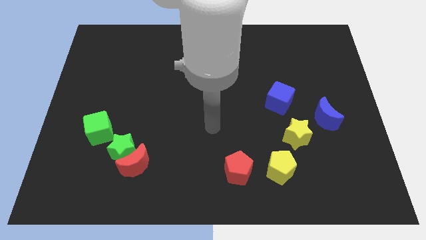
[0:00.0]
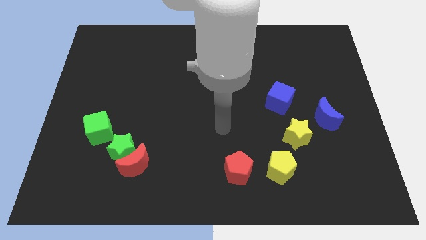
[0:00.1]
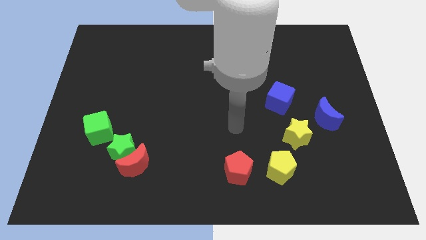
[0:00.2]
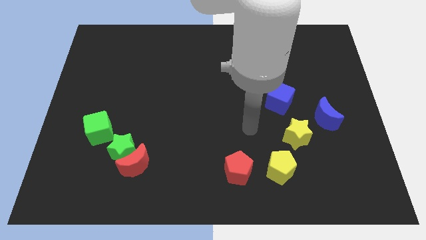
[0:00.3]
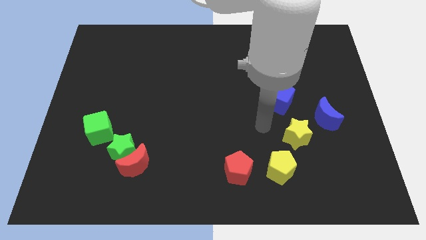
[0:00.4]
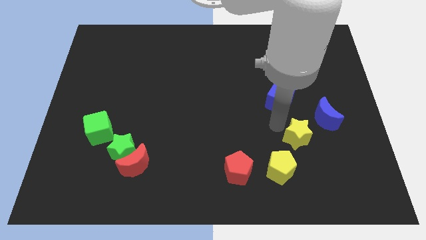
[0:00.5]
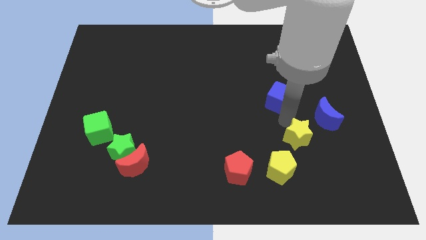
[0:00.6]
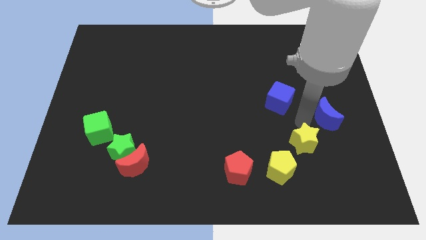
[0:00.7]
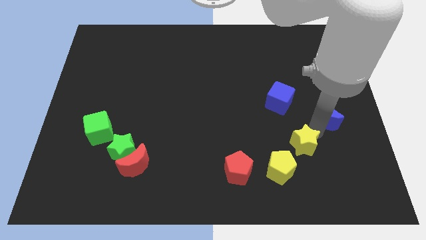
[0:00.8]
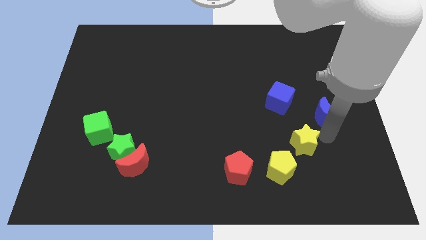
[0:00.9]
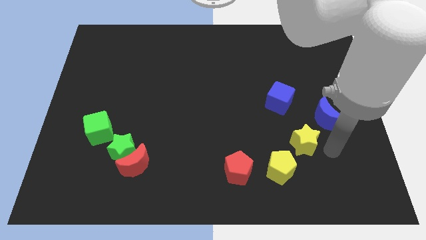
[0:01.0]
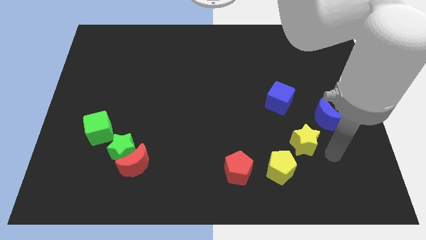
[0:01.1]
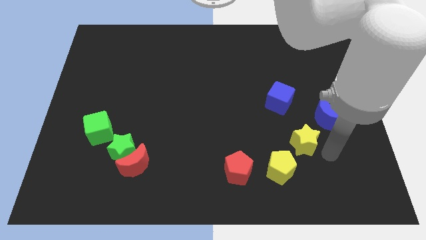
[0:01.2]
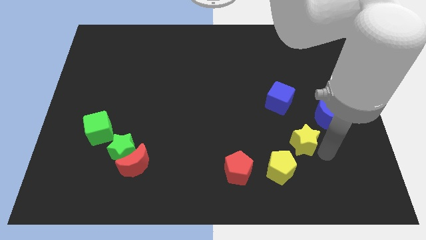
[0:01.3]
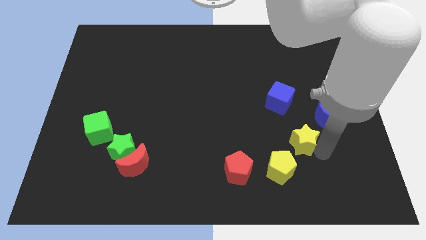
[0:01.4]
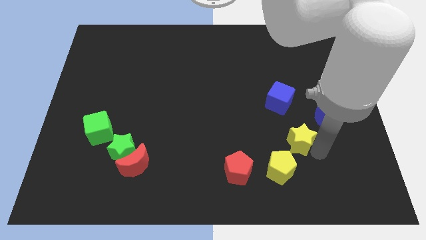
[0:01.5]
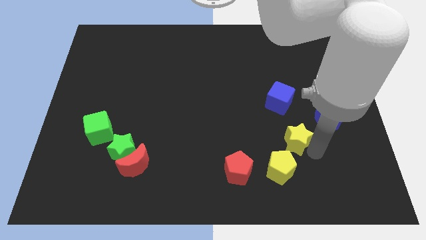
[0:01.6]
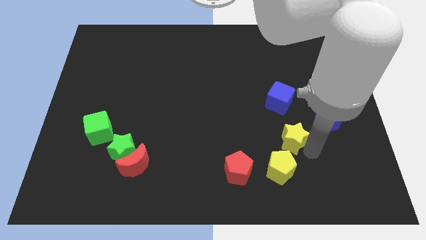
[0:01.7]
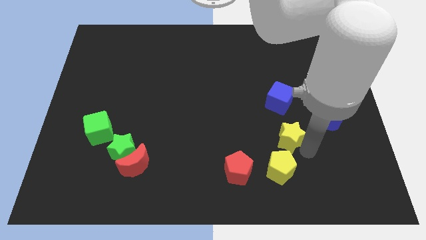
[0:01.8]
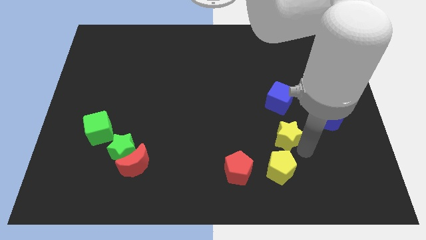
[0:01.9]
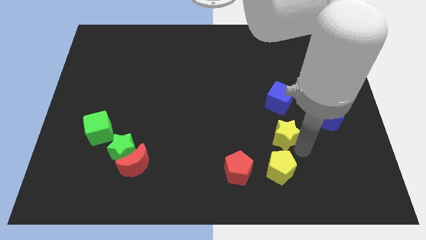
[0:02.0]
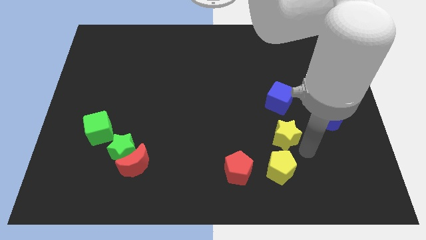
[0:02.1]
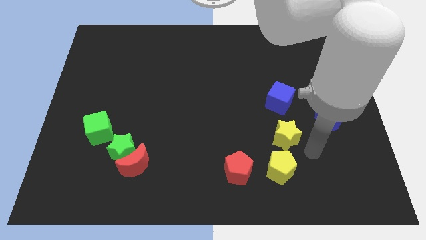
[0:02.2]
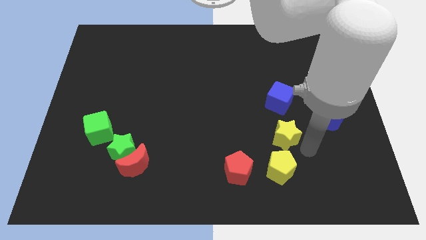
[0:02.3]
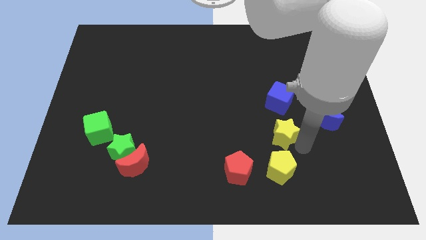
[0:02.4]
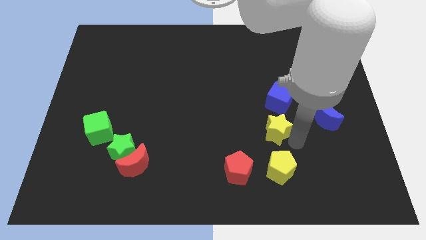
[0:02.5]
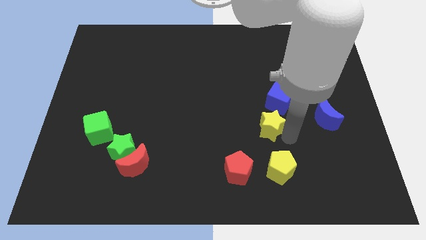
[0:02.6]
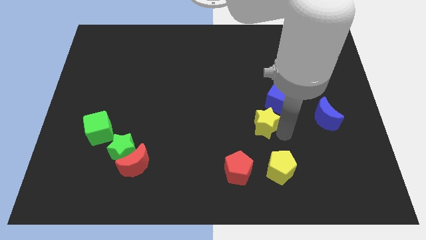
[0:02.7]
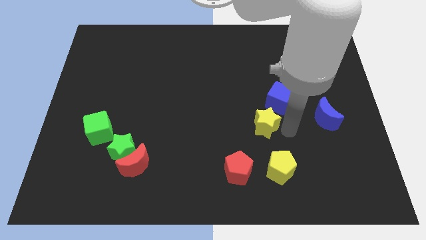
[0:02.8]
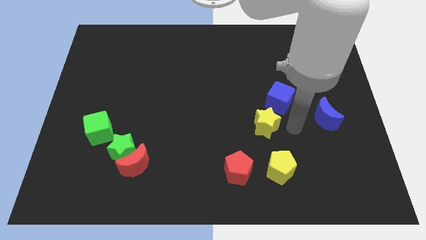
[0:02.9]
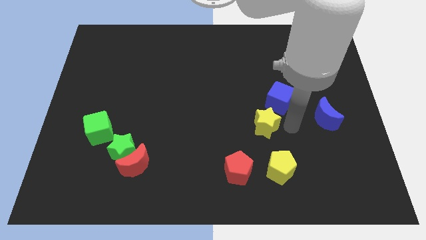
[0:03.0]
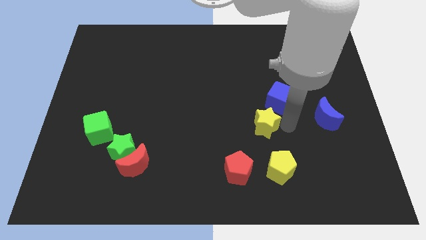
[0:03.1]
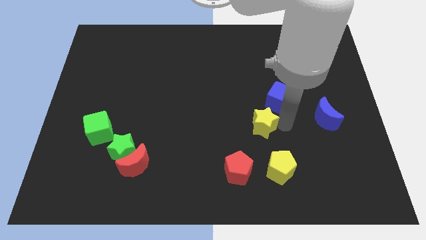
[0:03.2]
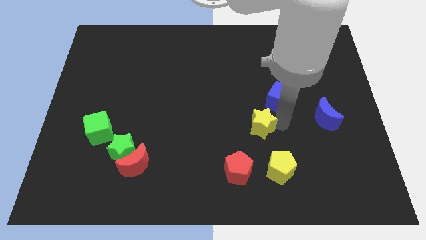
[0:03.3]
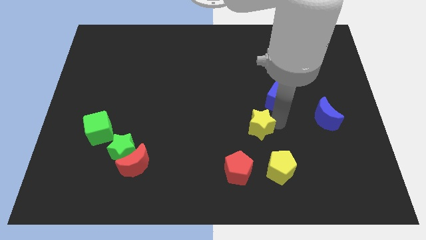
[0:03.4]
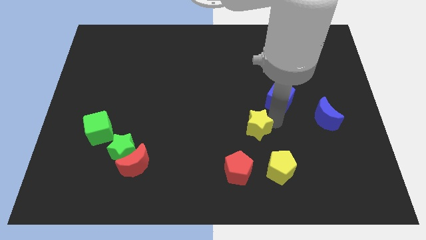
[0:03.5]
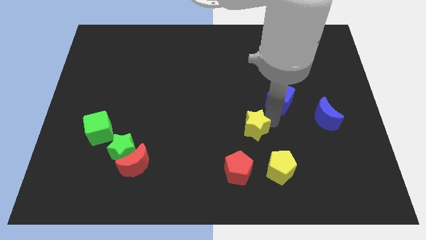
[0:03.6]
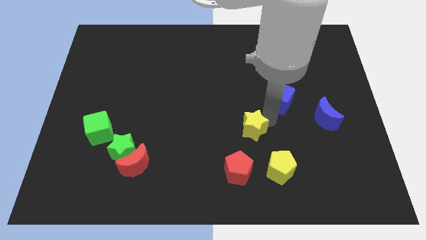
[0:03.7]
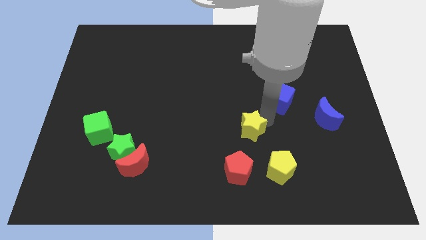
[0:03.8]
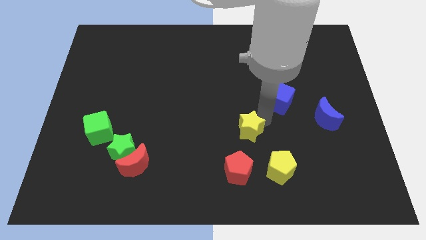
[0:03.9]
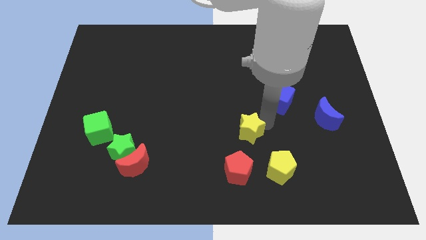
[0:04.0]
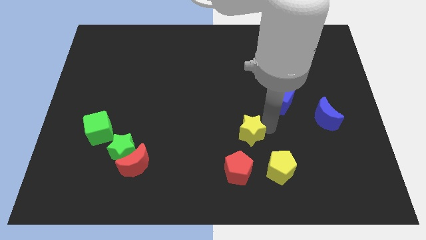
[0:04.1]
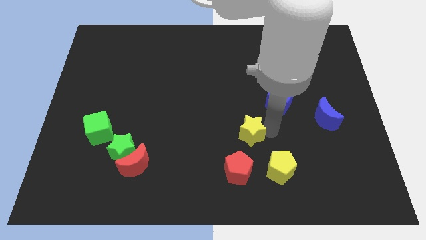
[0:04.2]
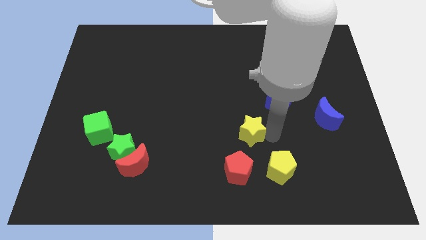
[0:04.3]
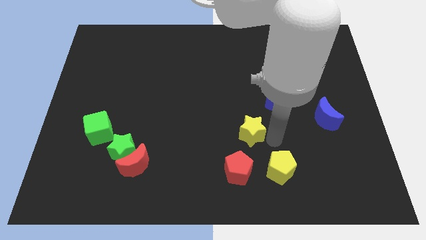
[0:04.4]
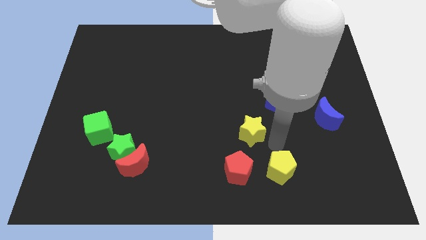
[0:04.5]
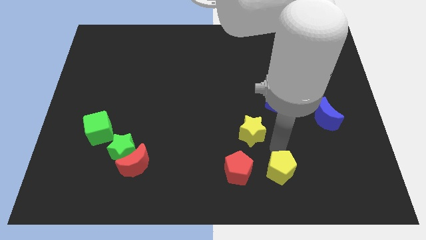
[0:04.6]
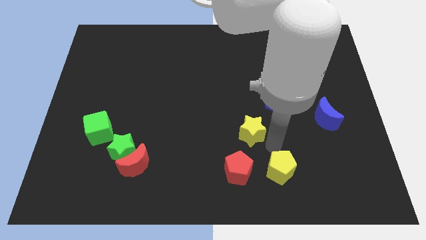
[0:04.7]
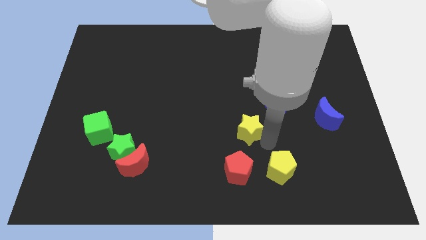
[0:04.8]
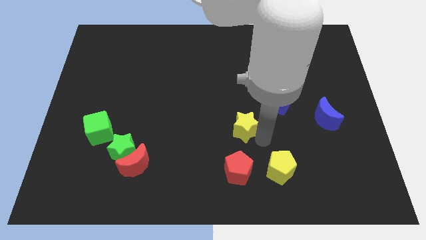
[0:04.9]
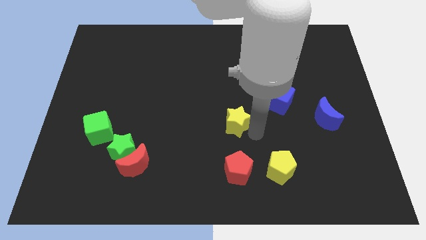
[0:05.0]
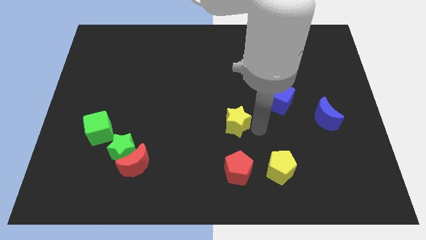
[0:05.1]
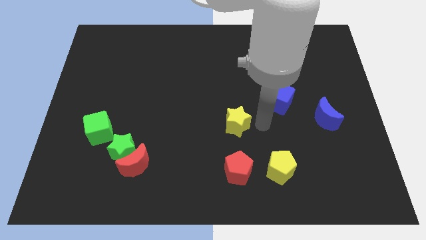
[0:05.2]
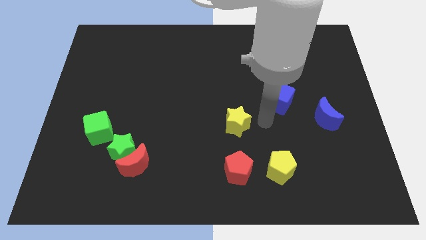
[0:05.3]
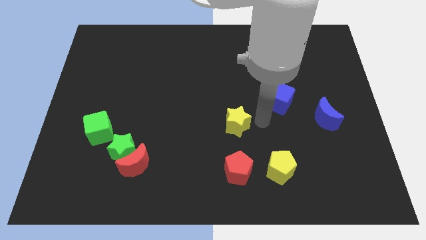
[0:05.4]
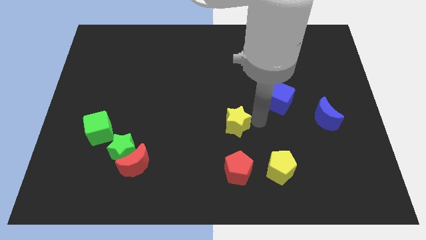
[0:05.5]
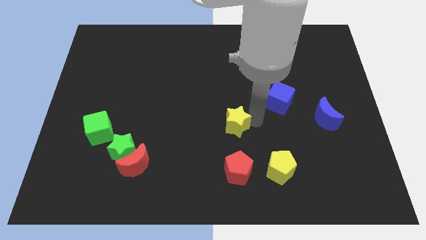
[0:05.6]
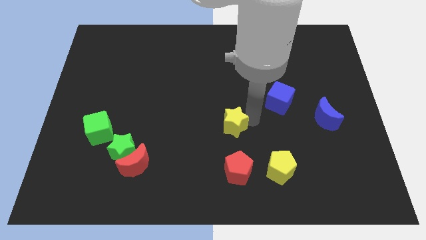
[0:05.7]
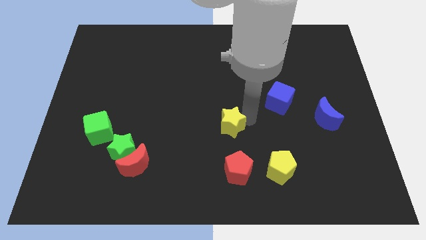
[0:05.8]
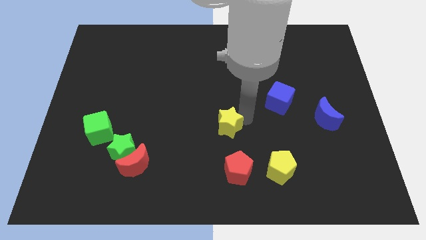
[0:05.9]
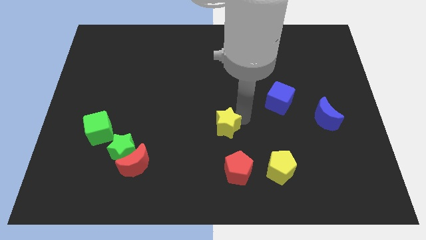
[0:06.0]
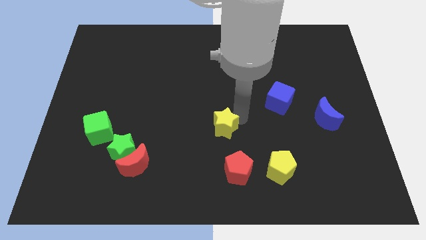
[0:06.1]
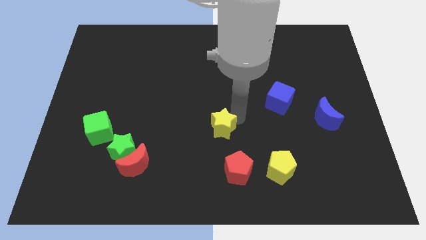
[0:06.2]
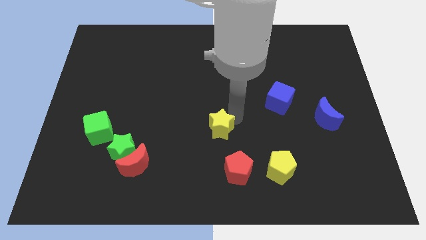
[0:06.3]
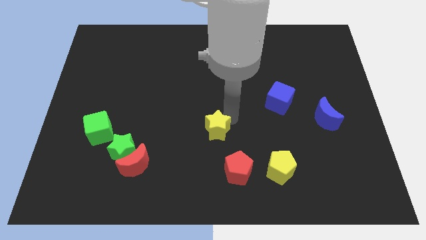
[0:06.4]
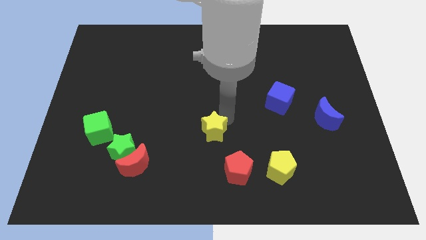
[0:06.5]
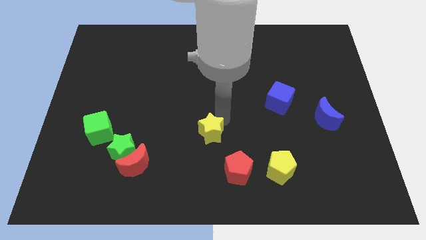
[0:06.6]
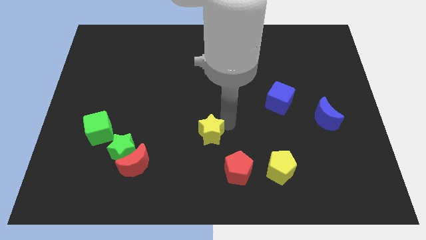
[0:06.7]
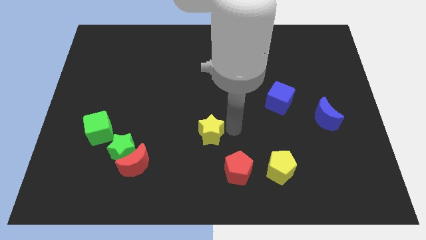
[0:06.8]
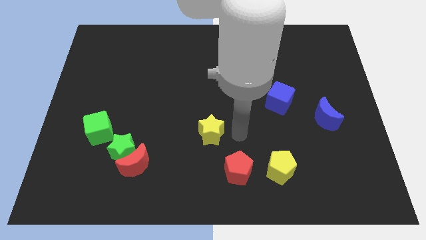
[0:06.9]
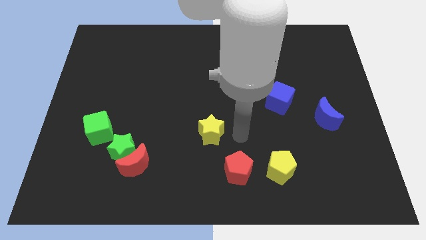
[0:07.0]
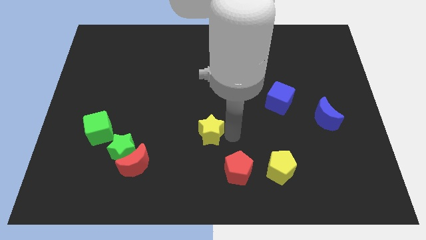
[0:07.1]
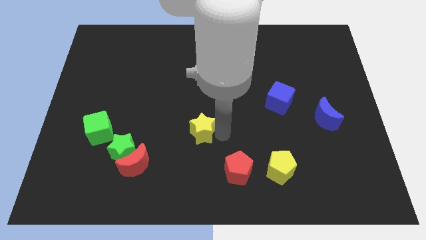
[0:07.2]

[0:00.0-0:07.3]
move the yellow star left

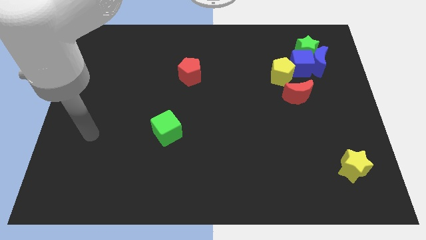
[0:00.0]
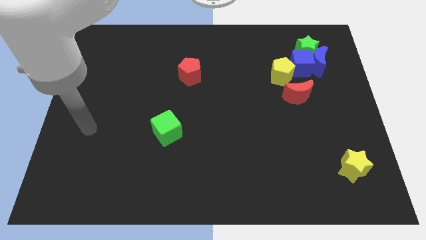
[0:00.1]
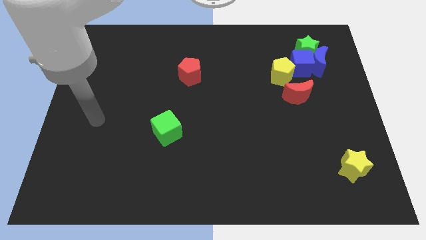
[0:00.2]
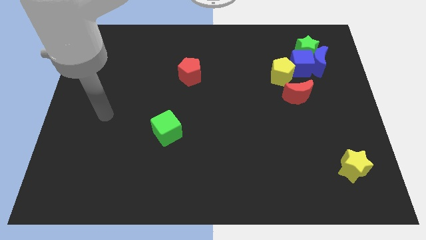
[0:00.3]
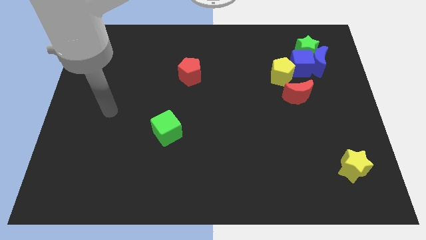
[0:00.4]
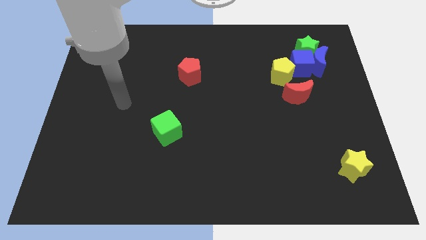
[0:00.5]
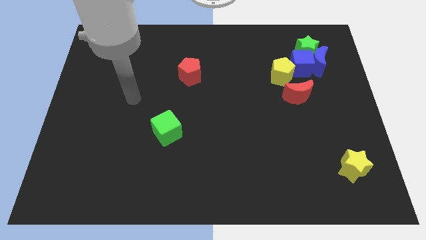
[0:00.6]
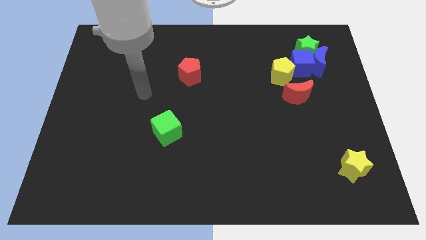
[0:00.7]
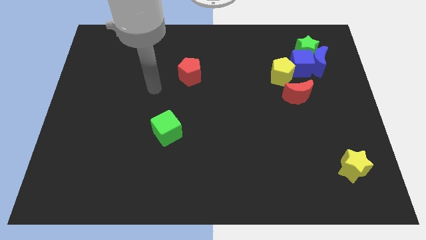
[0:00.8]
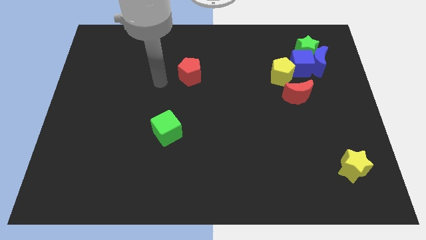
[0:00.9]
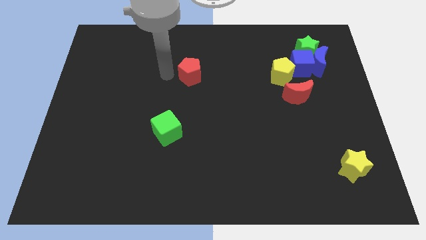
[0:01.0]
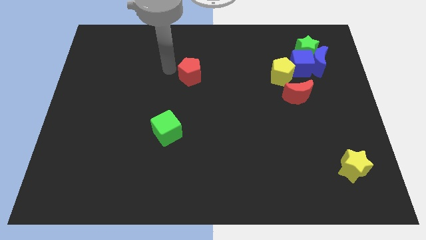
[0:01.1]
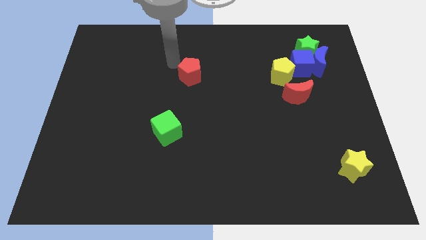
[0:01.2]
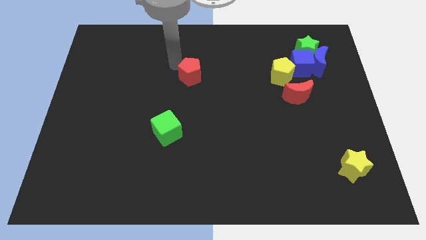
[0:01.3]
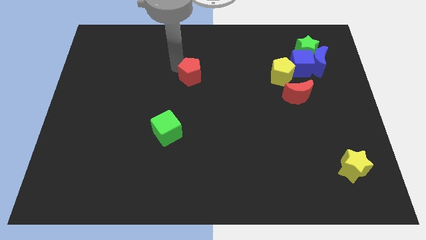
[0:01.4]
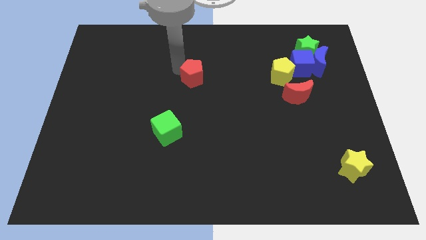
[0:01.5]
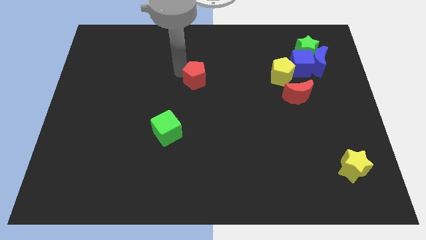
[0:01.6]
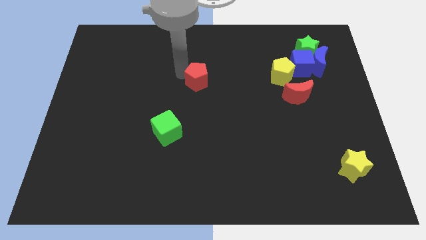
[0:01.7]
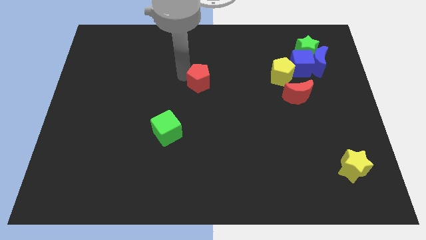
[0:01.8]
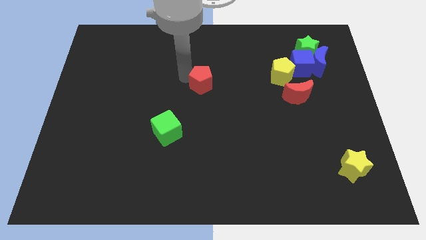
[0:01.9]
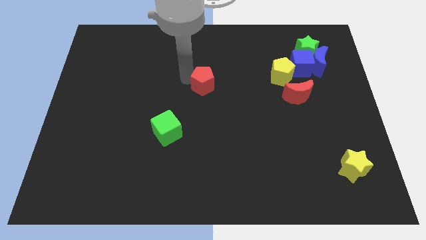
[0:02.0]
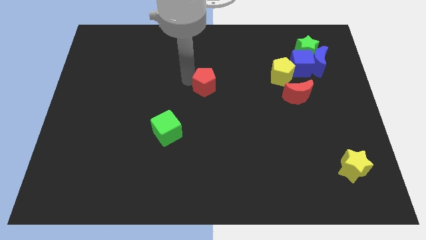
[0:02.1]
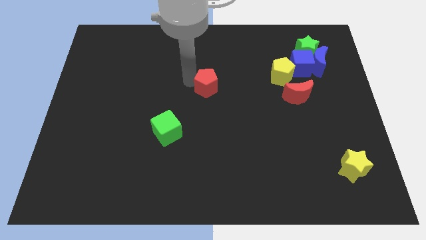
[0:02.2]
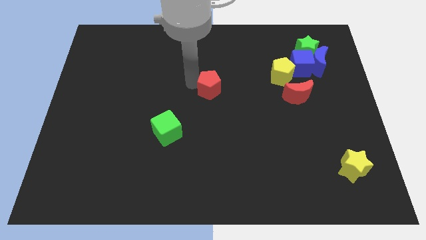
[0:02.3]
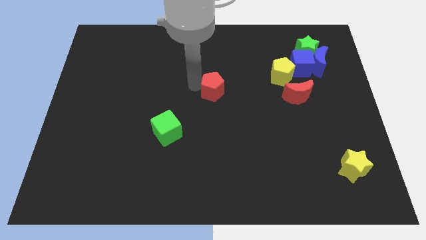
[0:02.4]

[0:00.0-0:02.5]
push the red pentagon somewhat diagonally downwards and to the right
